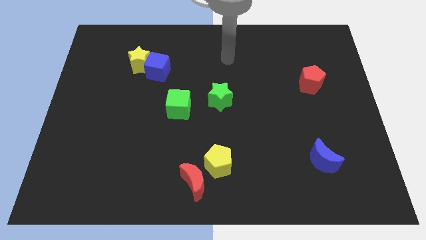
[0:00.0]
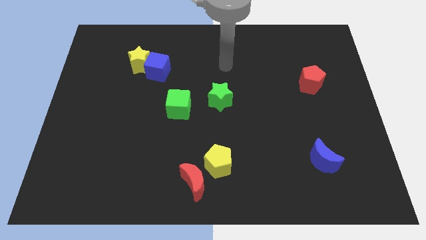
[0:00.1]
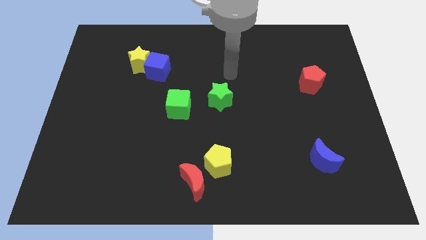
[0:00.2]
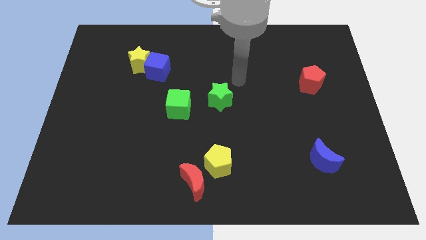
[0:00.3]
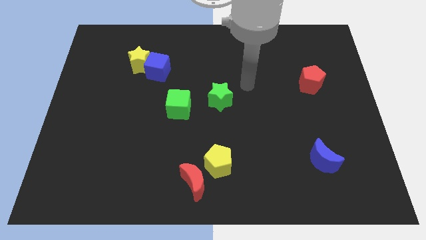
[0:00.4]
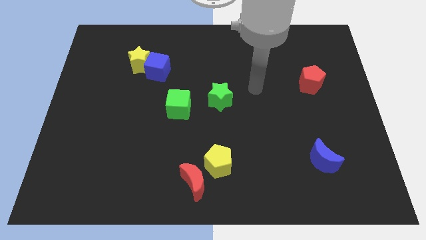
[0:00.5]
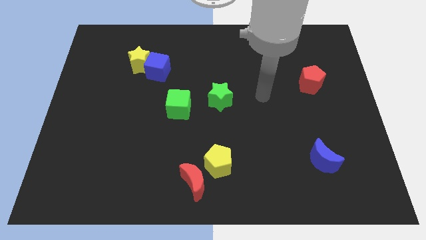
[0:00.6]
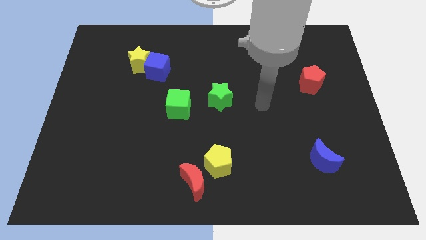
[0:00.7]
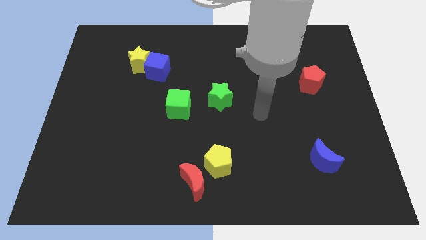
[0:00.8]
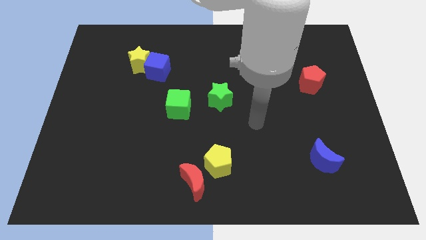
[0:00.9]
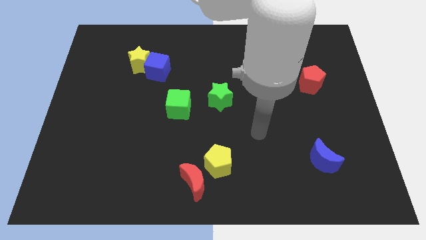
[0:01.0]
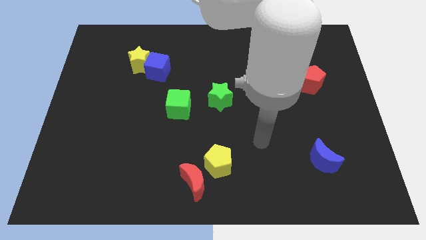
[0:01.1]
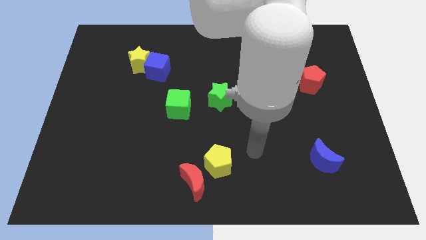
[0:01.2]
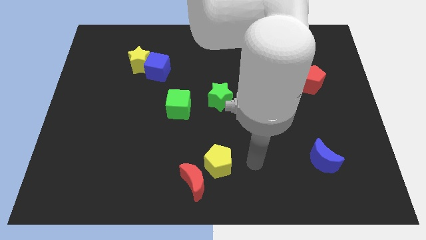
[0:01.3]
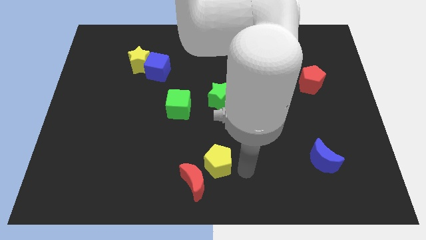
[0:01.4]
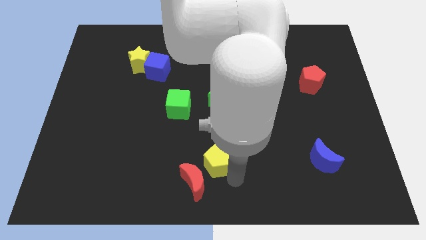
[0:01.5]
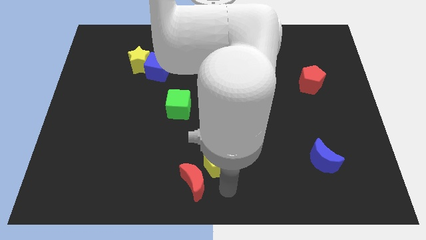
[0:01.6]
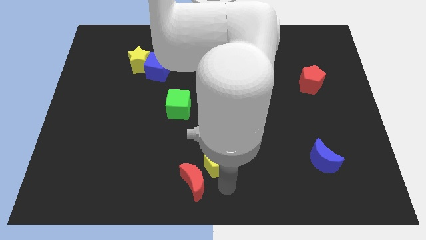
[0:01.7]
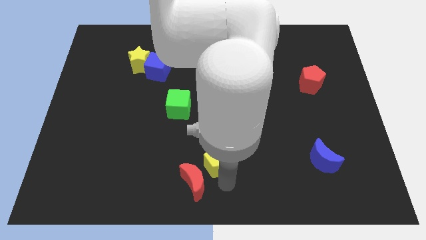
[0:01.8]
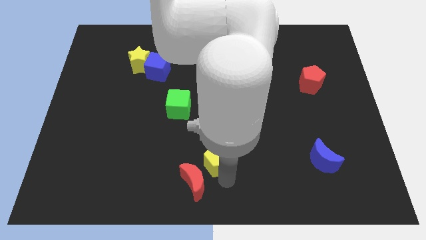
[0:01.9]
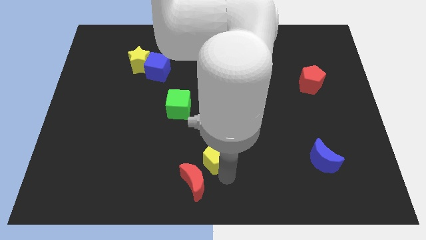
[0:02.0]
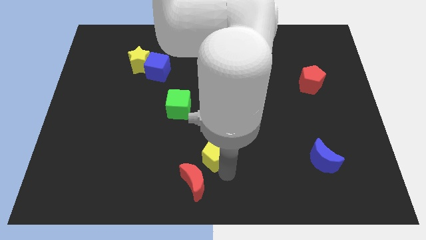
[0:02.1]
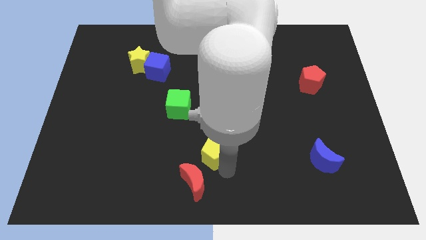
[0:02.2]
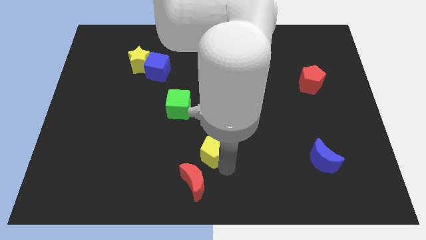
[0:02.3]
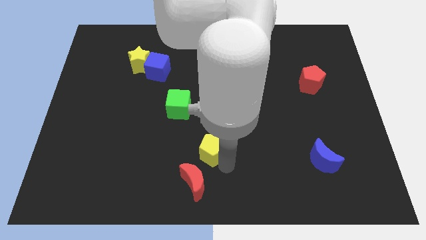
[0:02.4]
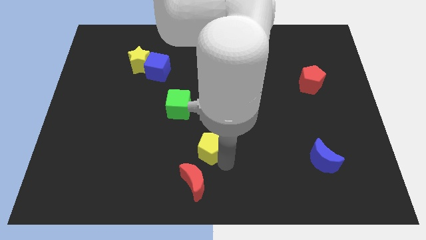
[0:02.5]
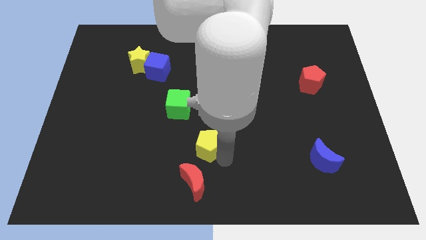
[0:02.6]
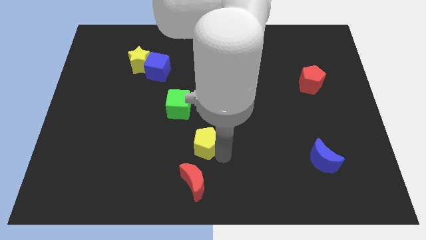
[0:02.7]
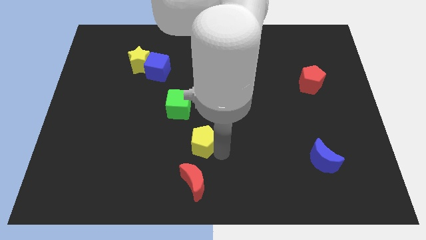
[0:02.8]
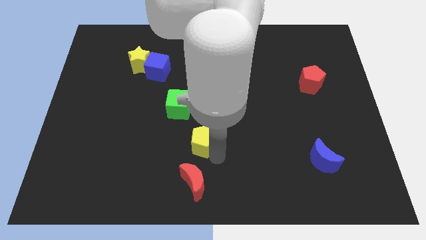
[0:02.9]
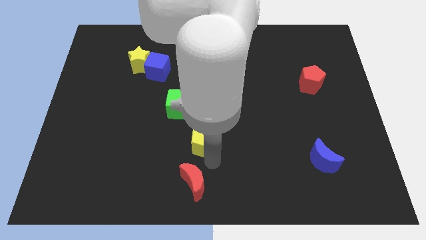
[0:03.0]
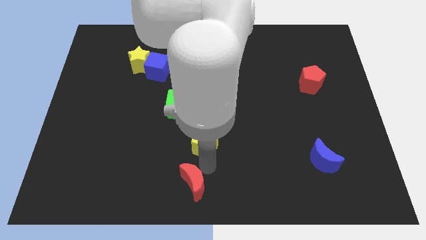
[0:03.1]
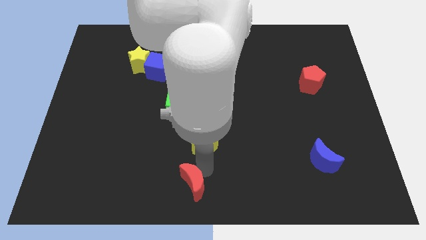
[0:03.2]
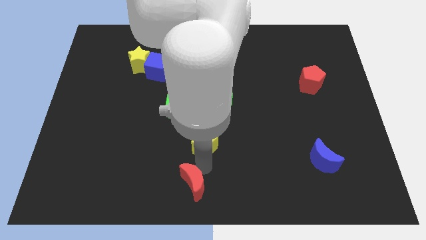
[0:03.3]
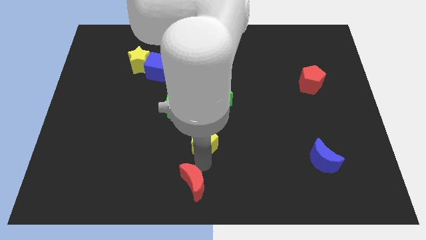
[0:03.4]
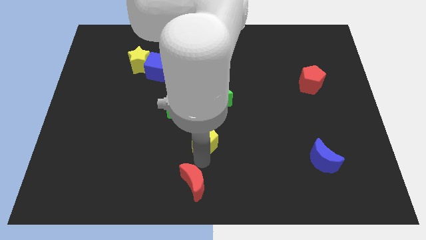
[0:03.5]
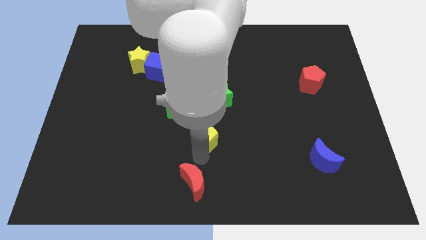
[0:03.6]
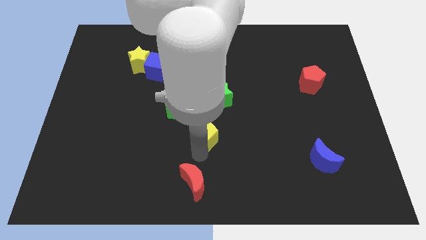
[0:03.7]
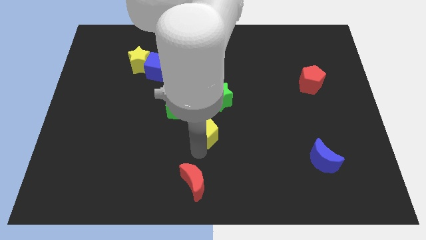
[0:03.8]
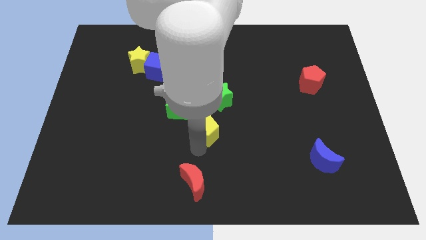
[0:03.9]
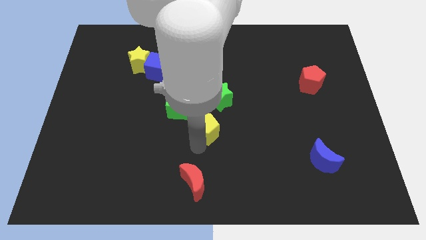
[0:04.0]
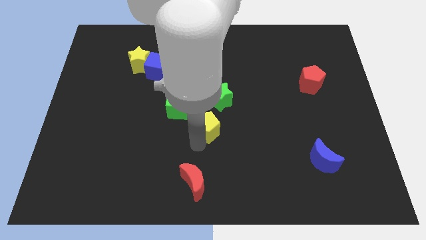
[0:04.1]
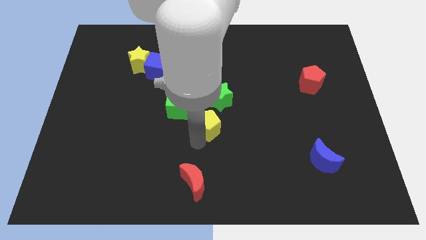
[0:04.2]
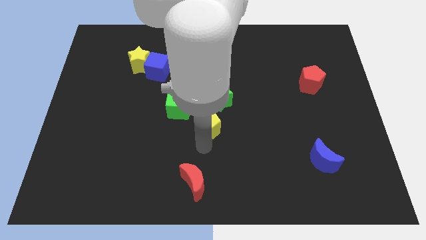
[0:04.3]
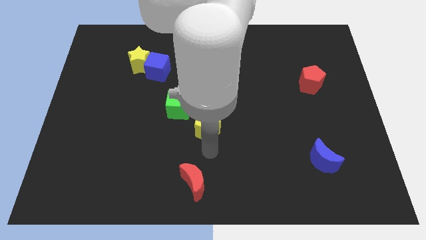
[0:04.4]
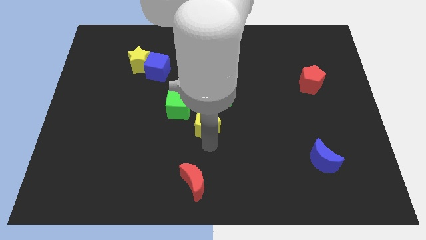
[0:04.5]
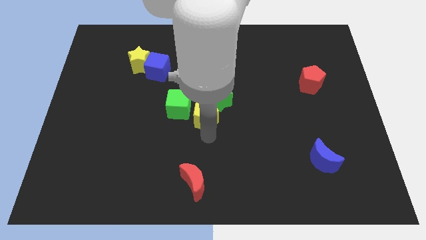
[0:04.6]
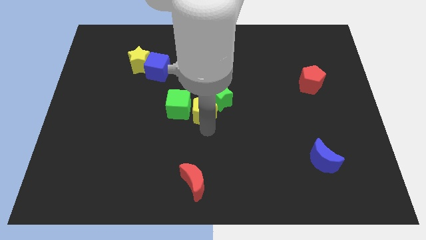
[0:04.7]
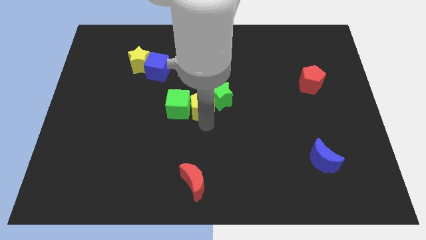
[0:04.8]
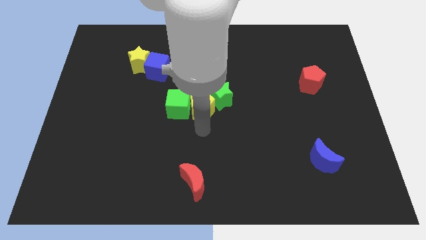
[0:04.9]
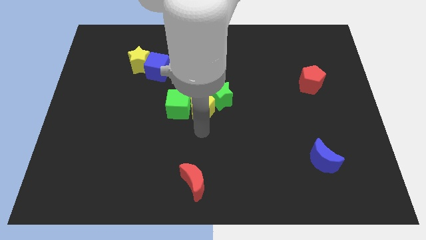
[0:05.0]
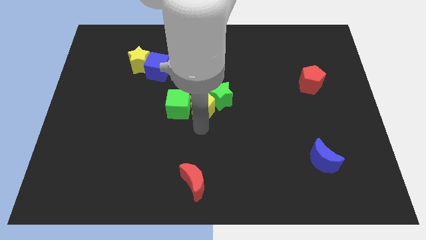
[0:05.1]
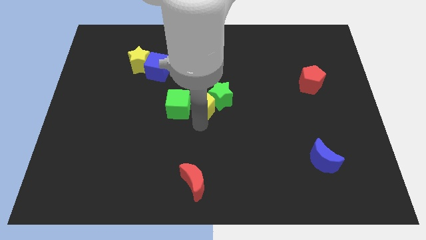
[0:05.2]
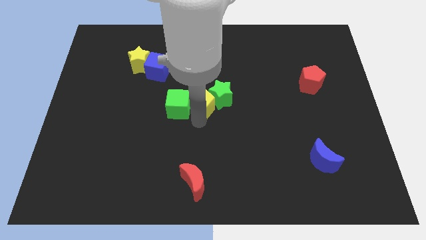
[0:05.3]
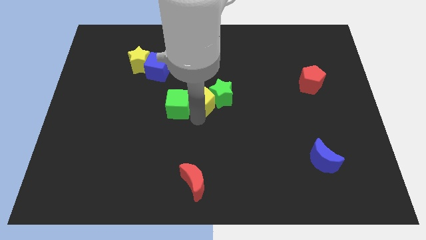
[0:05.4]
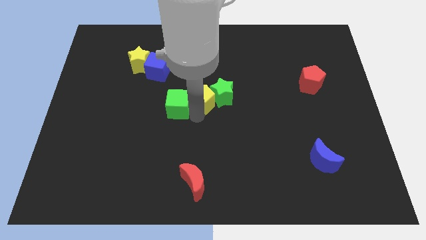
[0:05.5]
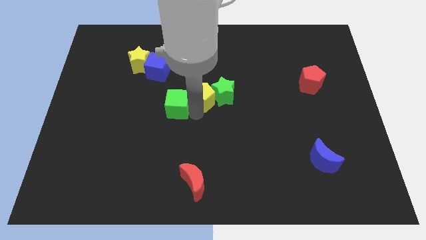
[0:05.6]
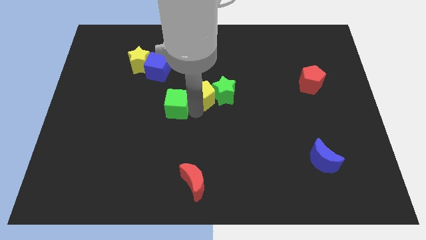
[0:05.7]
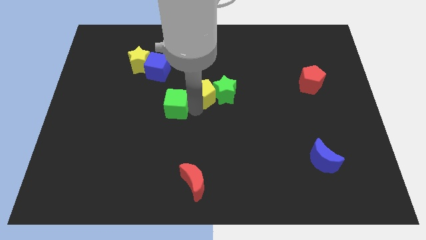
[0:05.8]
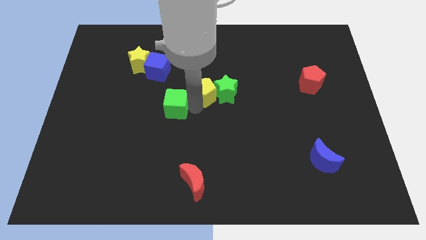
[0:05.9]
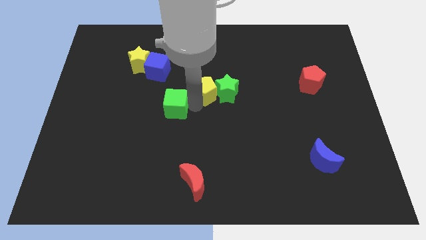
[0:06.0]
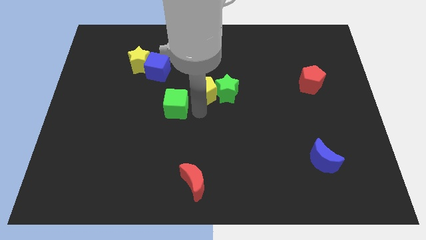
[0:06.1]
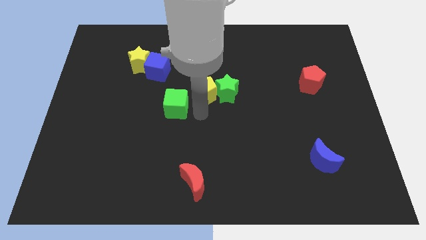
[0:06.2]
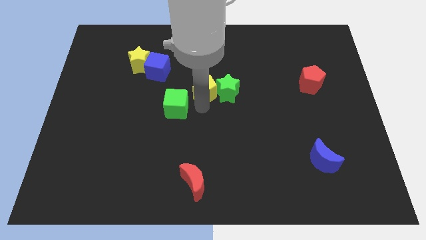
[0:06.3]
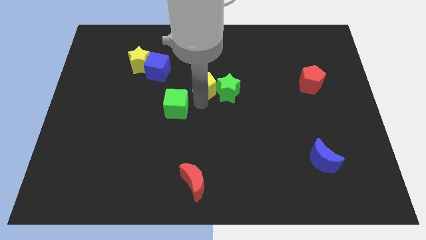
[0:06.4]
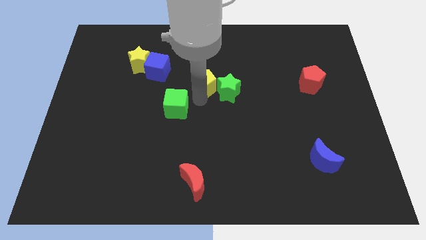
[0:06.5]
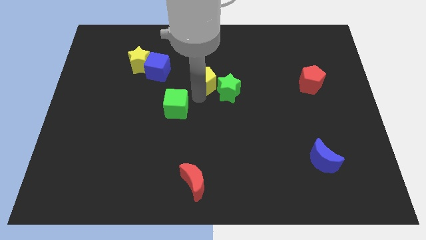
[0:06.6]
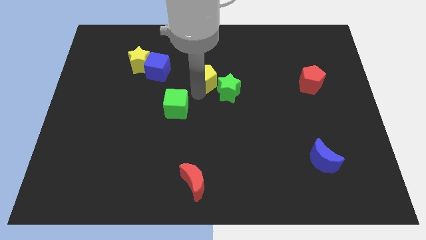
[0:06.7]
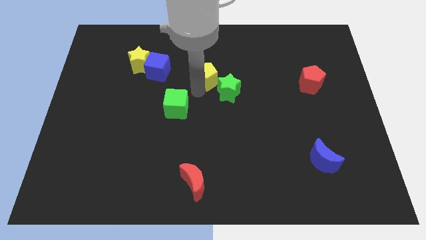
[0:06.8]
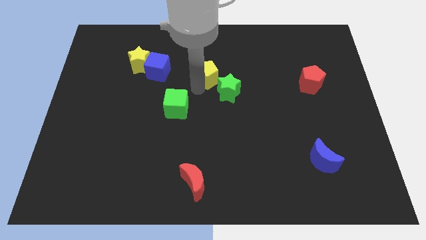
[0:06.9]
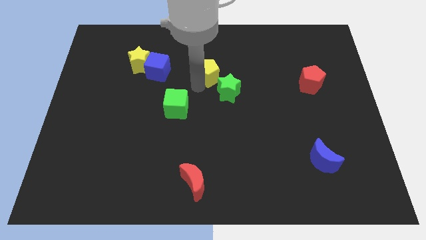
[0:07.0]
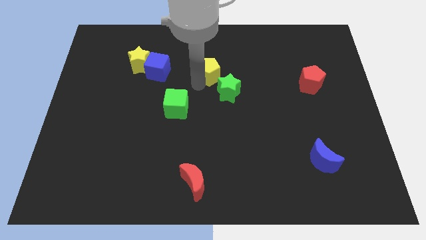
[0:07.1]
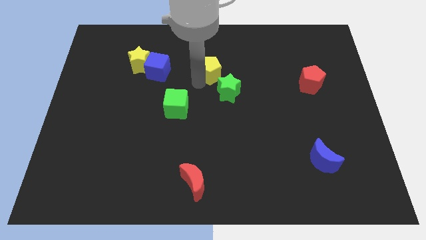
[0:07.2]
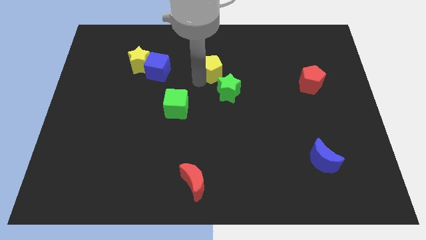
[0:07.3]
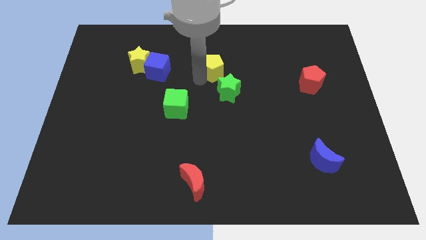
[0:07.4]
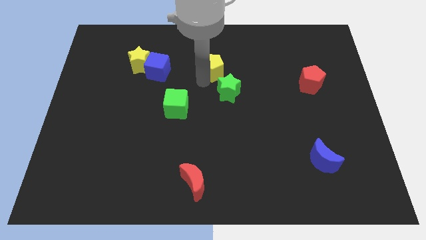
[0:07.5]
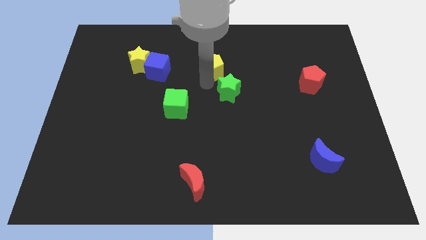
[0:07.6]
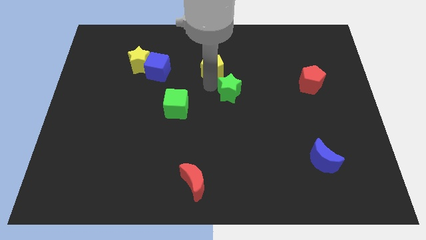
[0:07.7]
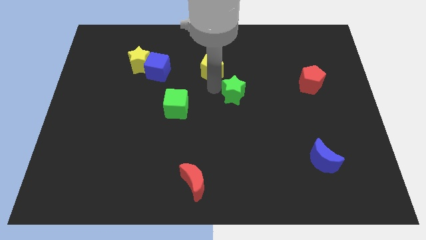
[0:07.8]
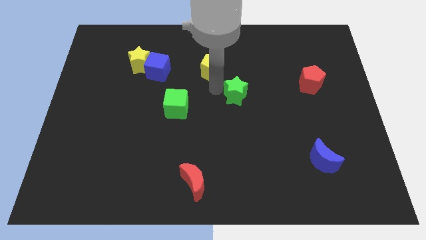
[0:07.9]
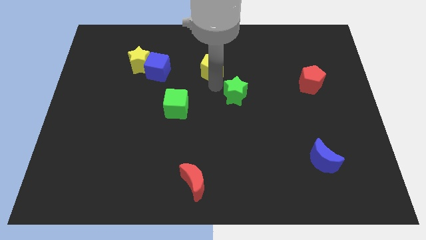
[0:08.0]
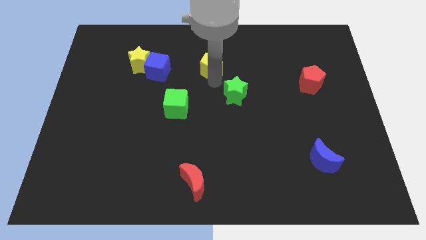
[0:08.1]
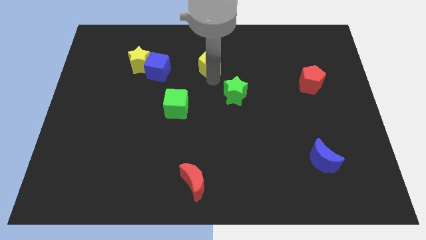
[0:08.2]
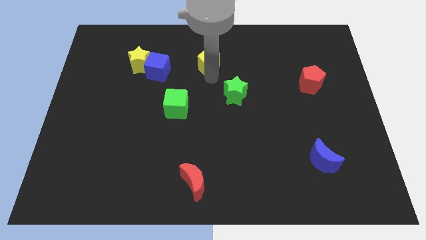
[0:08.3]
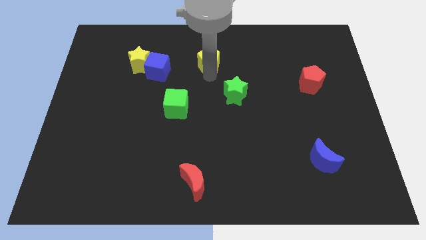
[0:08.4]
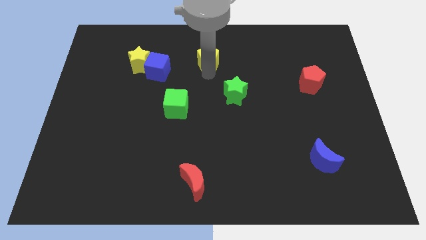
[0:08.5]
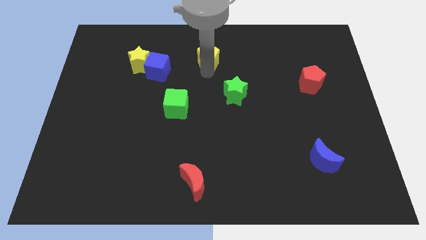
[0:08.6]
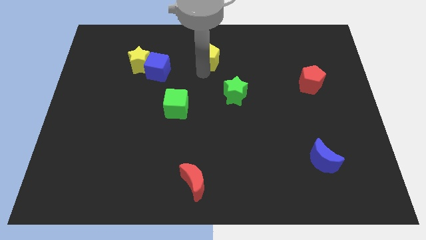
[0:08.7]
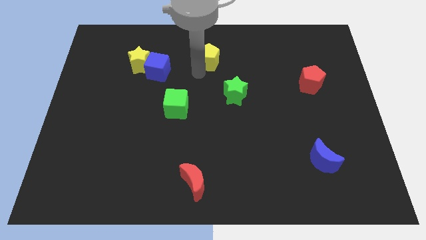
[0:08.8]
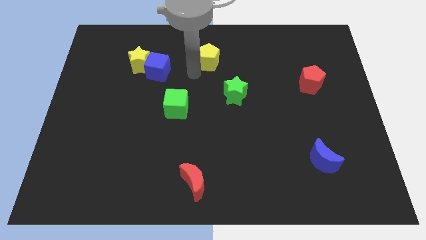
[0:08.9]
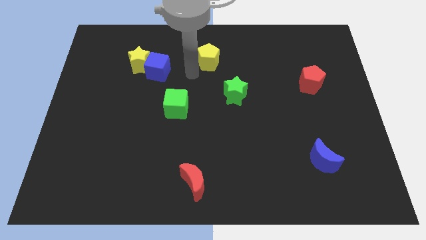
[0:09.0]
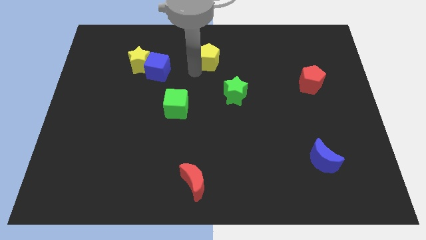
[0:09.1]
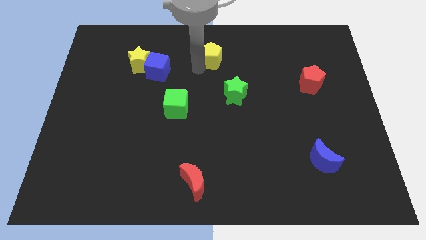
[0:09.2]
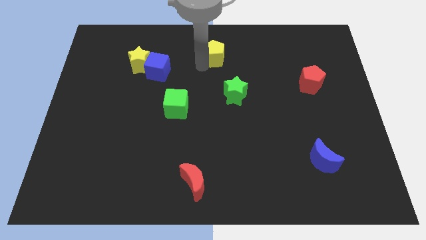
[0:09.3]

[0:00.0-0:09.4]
put the yellow pentagon to the top side
